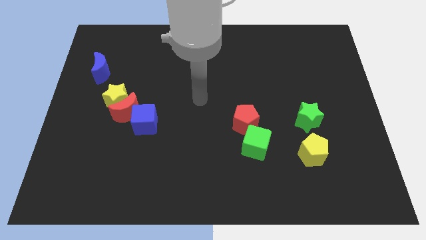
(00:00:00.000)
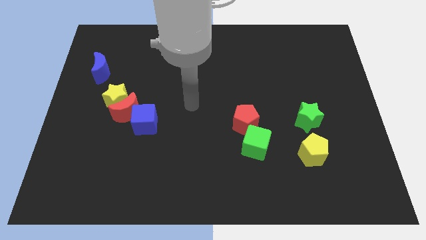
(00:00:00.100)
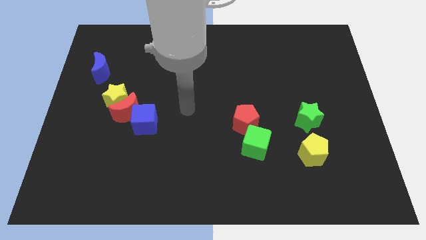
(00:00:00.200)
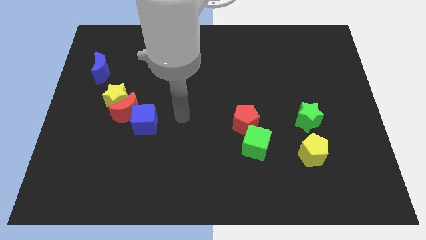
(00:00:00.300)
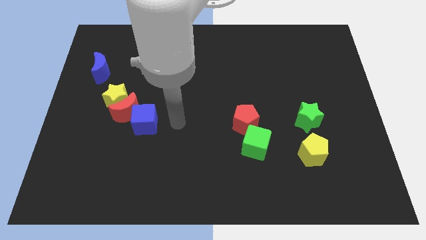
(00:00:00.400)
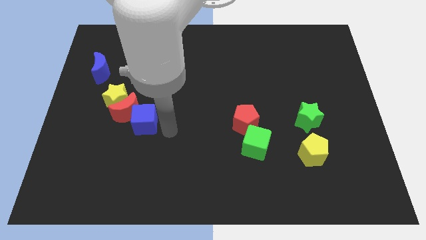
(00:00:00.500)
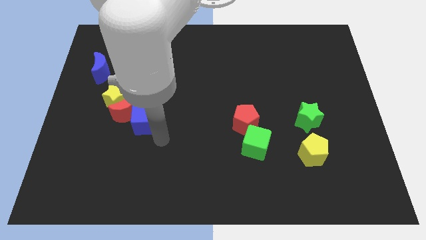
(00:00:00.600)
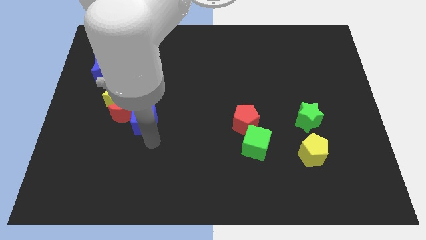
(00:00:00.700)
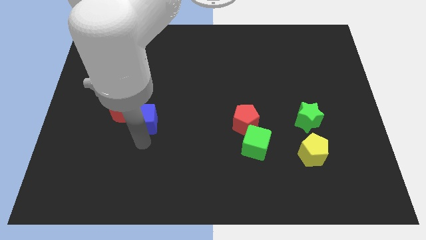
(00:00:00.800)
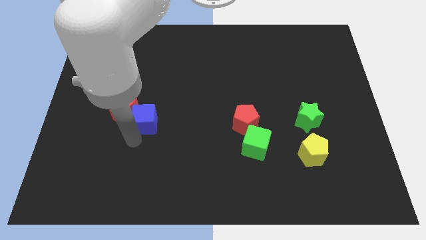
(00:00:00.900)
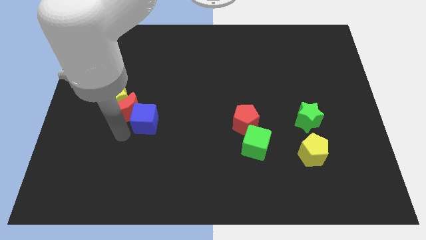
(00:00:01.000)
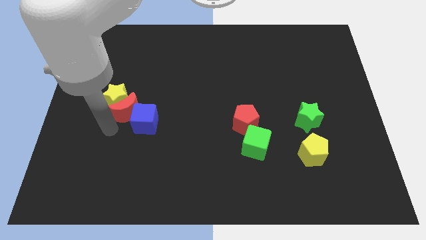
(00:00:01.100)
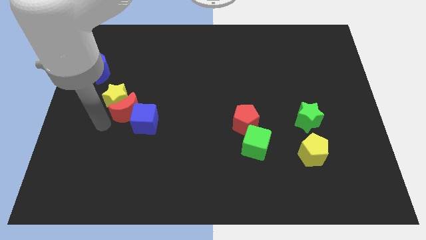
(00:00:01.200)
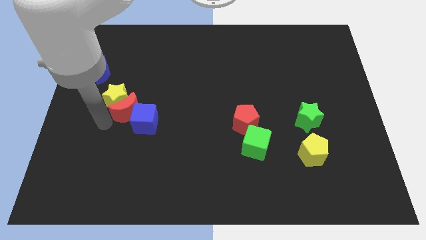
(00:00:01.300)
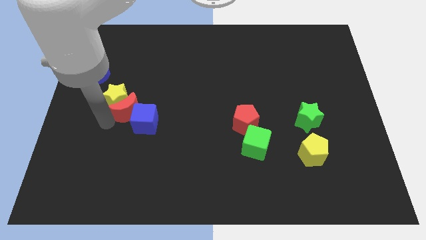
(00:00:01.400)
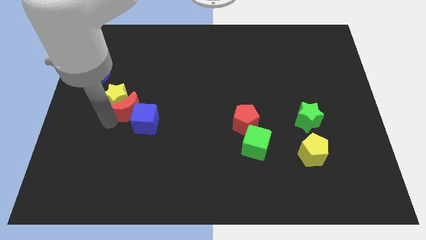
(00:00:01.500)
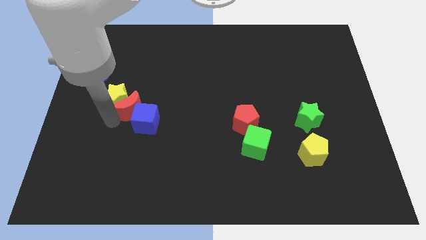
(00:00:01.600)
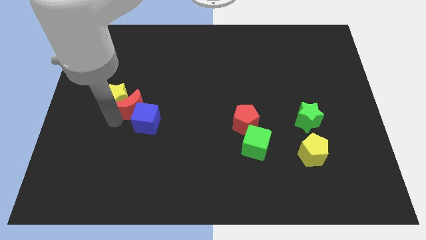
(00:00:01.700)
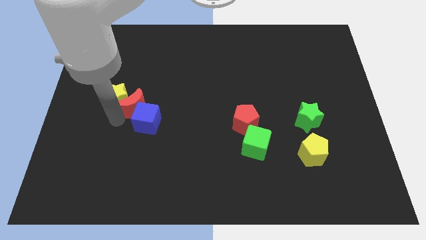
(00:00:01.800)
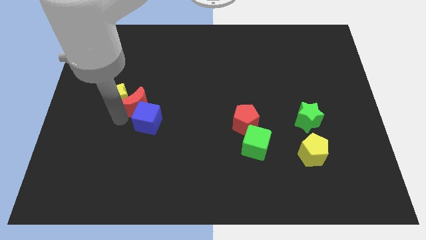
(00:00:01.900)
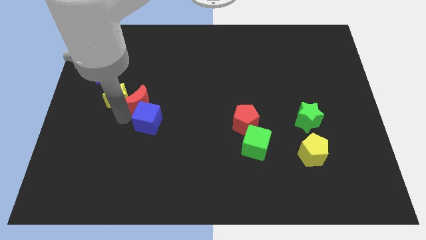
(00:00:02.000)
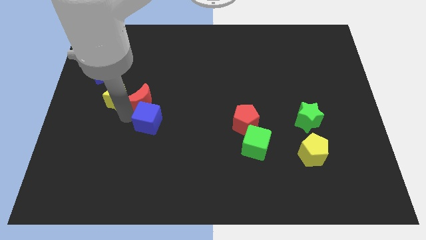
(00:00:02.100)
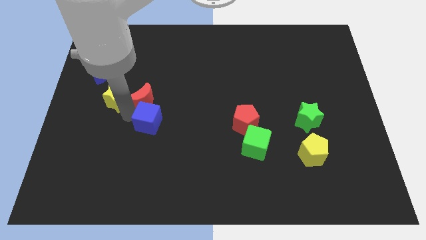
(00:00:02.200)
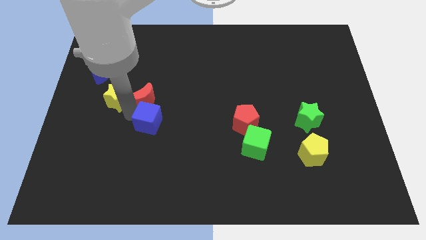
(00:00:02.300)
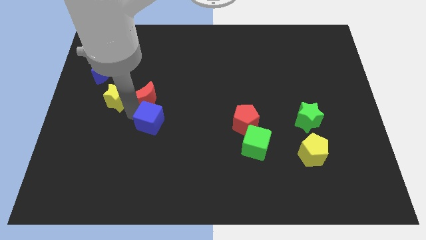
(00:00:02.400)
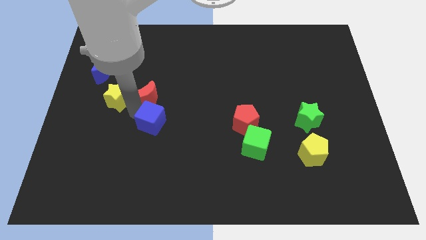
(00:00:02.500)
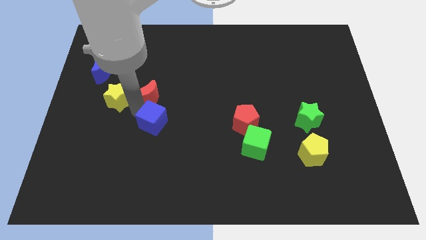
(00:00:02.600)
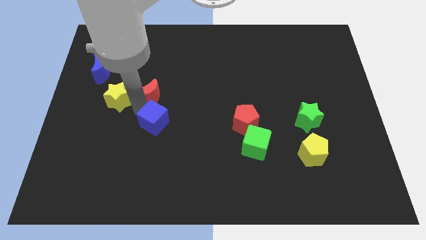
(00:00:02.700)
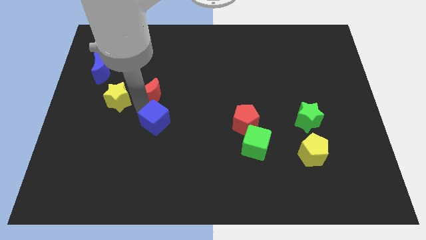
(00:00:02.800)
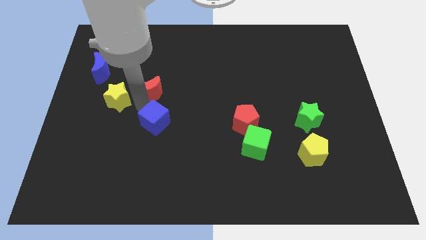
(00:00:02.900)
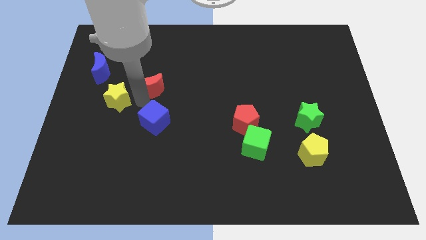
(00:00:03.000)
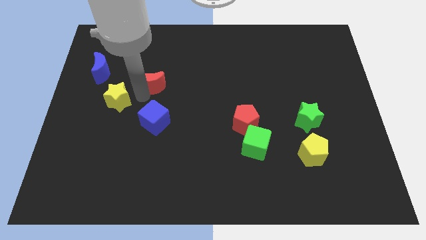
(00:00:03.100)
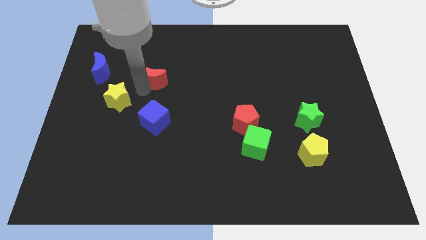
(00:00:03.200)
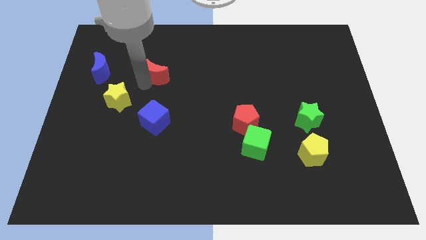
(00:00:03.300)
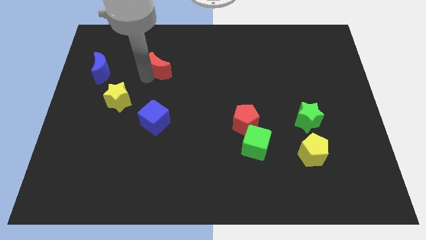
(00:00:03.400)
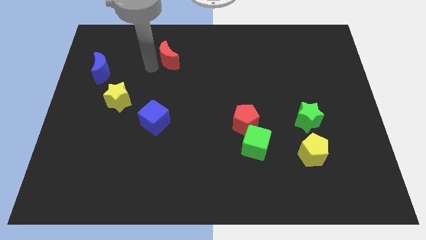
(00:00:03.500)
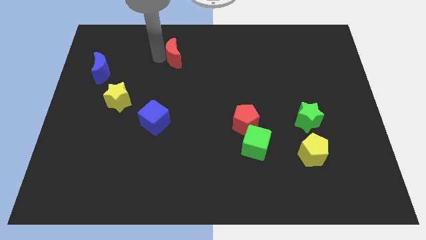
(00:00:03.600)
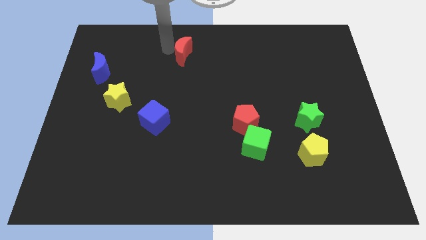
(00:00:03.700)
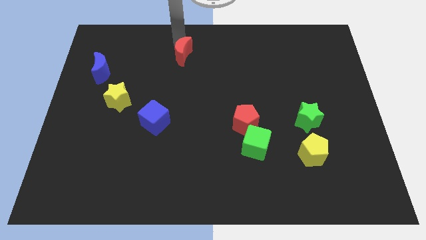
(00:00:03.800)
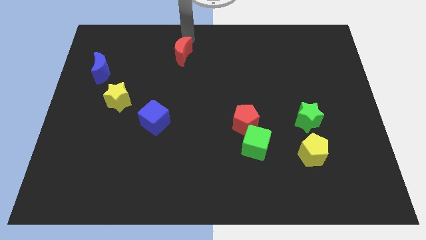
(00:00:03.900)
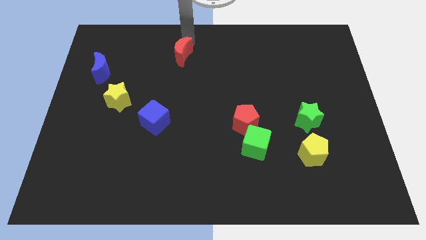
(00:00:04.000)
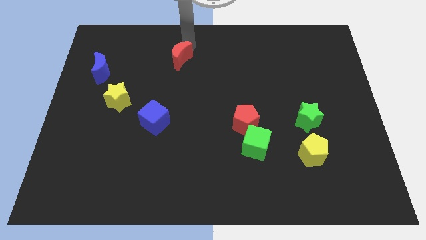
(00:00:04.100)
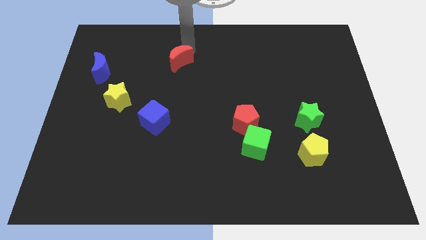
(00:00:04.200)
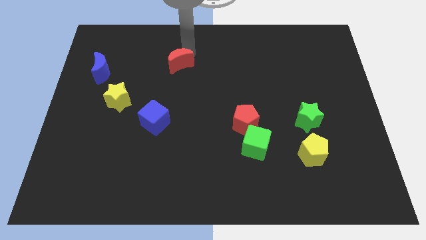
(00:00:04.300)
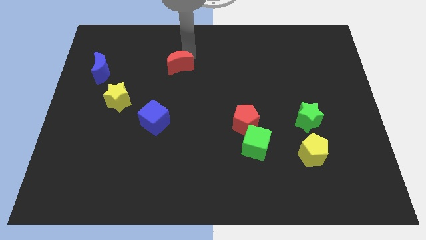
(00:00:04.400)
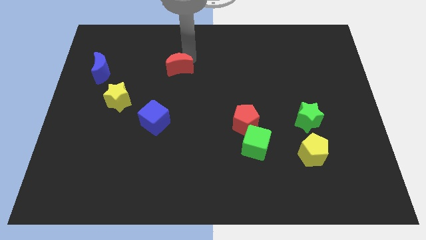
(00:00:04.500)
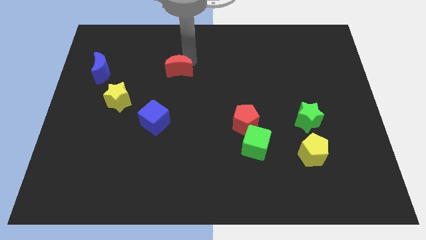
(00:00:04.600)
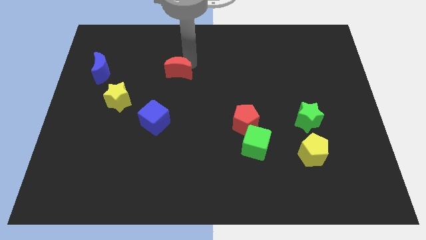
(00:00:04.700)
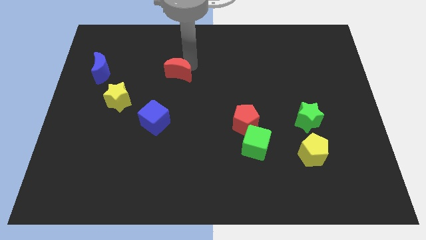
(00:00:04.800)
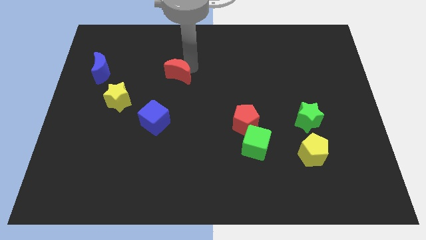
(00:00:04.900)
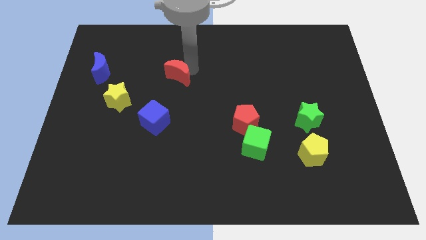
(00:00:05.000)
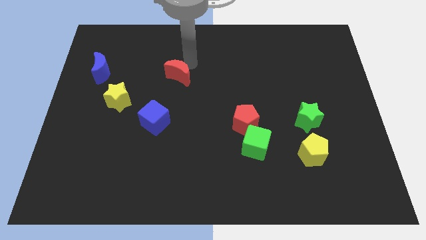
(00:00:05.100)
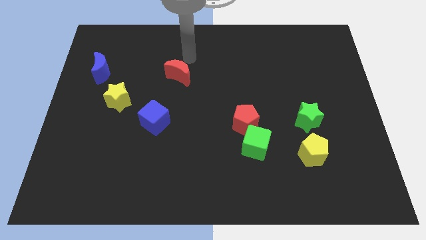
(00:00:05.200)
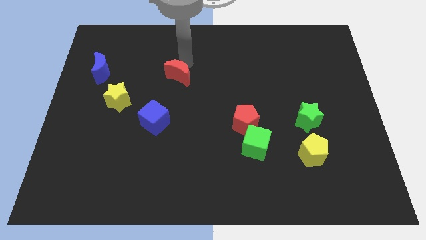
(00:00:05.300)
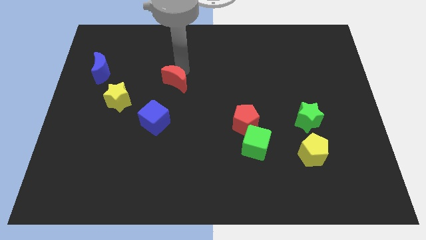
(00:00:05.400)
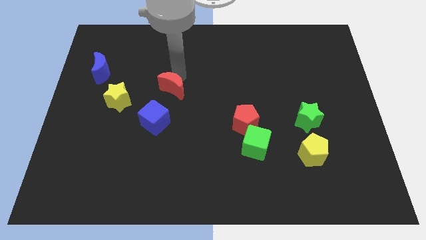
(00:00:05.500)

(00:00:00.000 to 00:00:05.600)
slide the red moon a little bit to the right

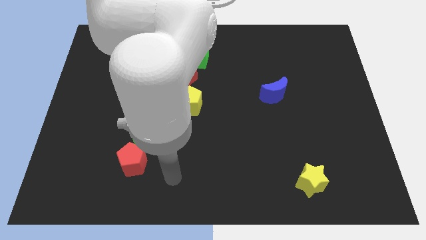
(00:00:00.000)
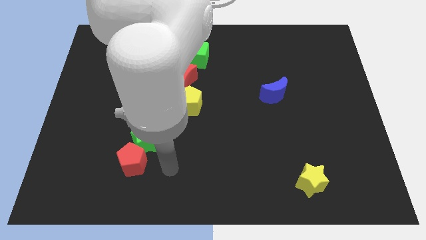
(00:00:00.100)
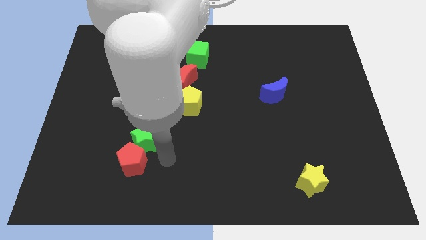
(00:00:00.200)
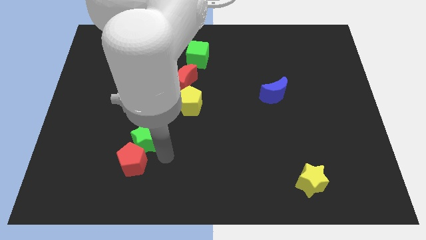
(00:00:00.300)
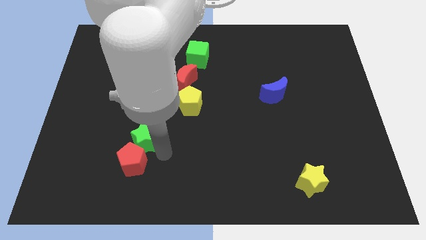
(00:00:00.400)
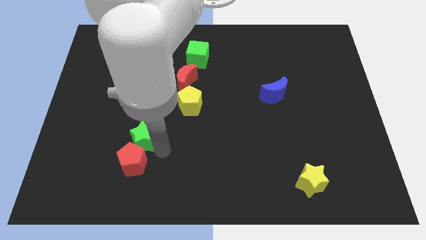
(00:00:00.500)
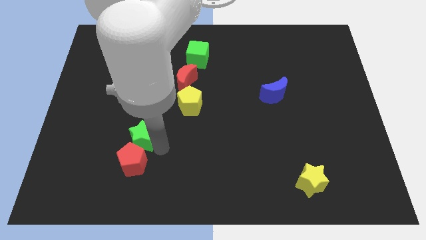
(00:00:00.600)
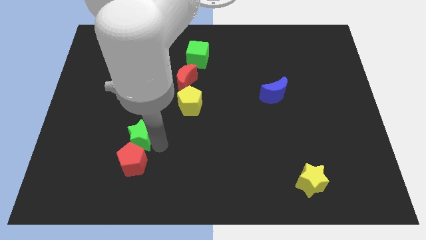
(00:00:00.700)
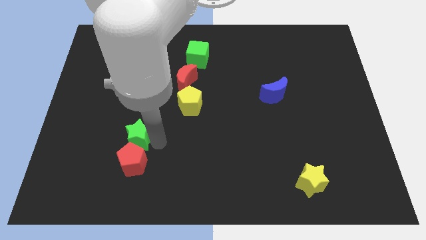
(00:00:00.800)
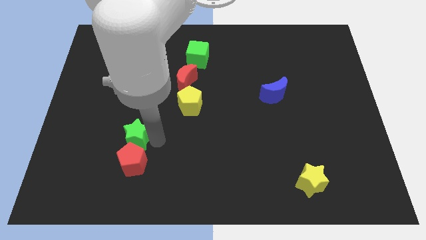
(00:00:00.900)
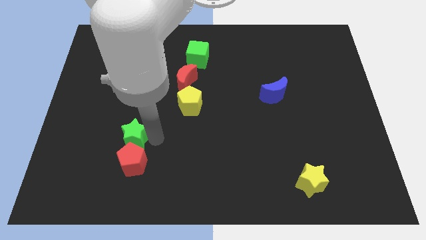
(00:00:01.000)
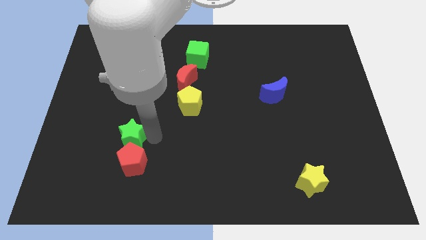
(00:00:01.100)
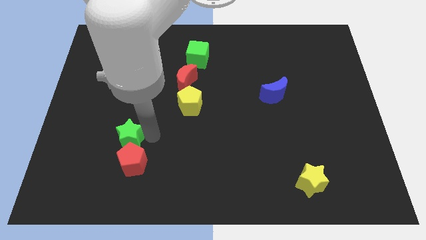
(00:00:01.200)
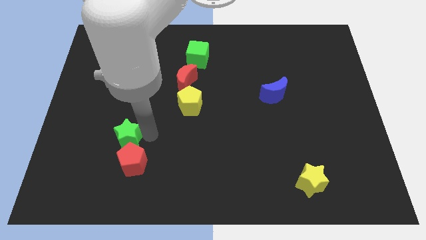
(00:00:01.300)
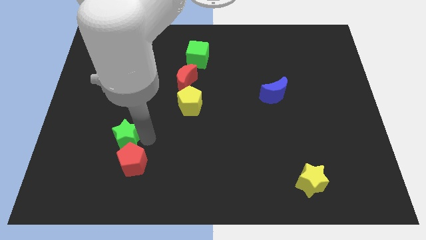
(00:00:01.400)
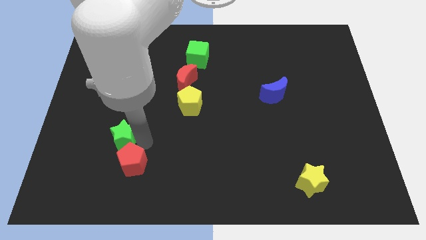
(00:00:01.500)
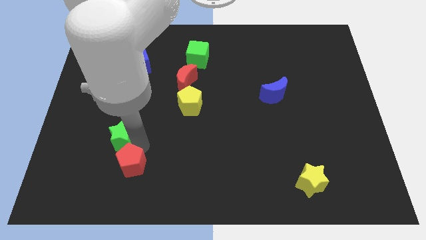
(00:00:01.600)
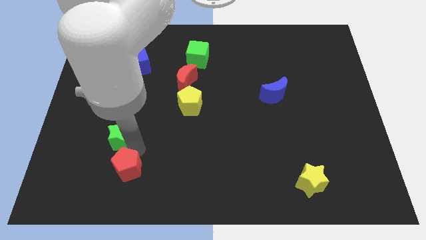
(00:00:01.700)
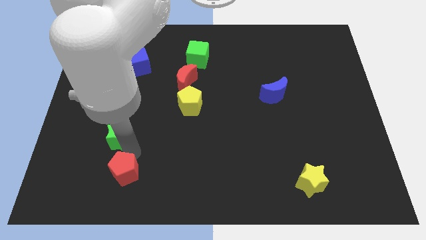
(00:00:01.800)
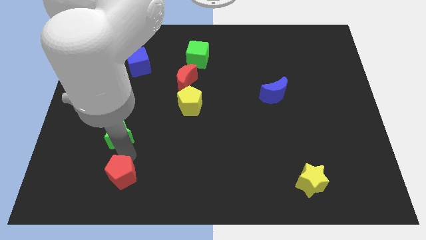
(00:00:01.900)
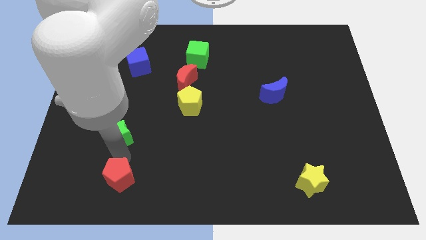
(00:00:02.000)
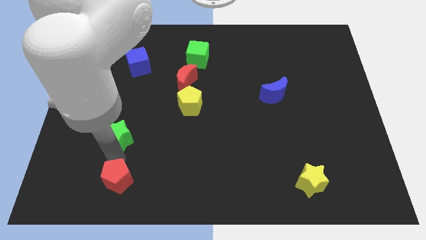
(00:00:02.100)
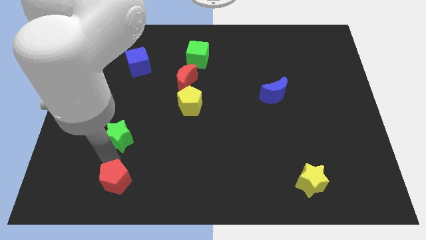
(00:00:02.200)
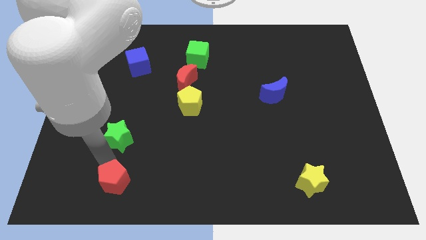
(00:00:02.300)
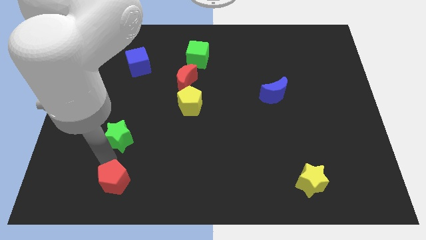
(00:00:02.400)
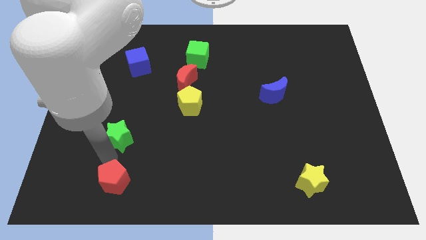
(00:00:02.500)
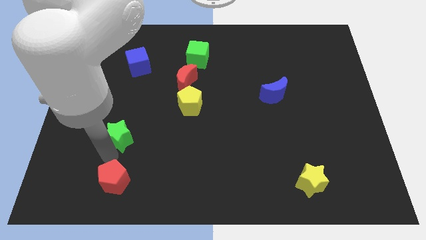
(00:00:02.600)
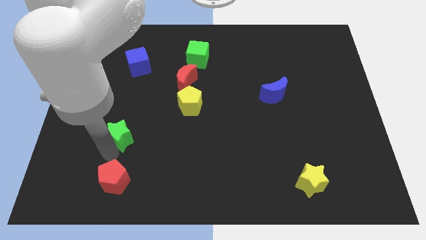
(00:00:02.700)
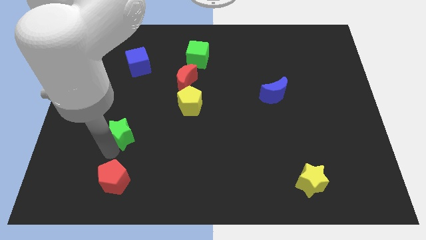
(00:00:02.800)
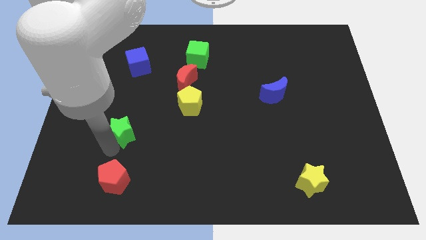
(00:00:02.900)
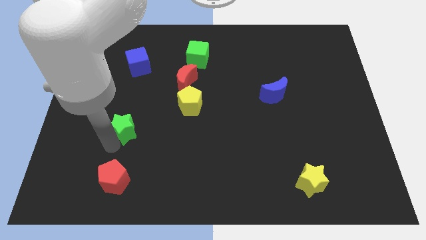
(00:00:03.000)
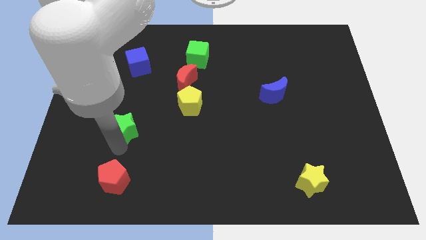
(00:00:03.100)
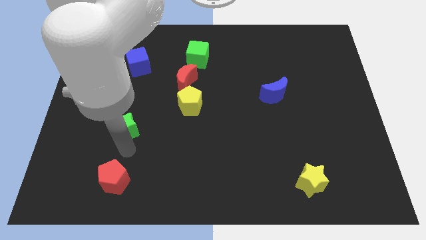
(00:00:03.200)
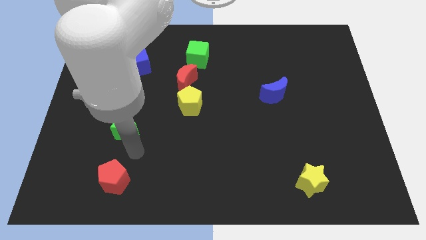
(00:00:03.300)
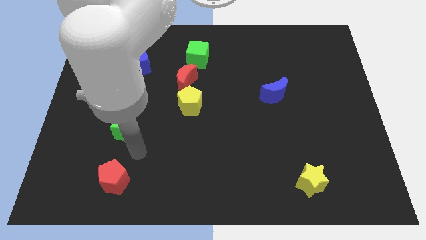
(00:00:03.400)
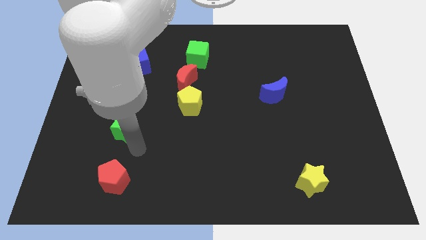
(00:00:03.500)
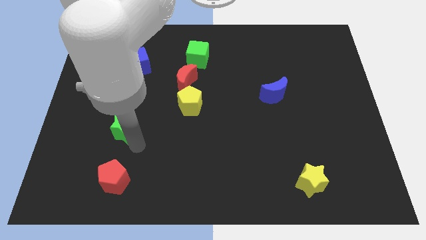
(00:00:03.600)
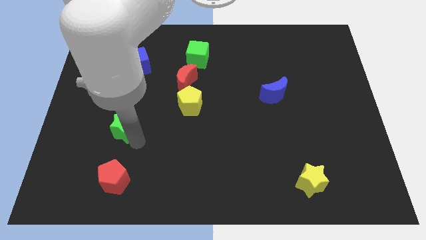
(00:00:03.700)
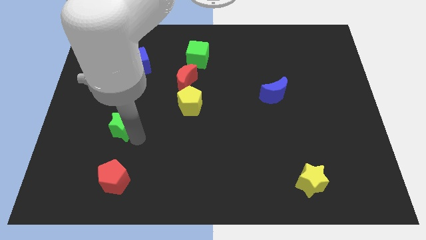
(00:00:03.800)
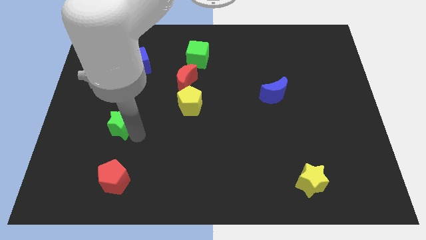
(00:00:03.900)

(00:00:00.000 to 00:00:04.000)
slightly slide the green star upwards and left
